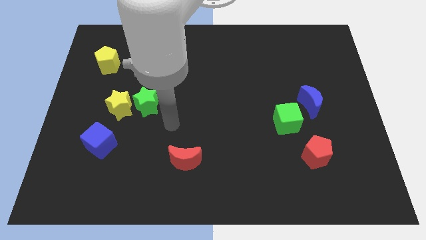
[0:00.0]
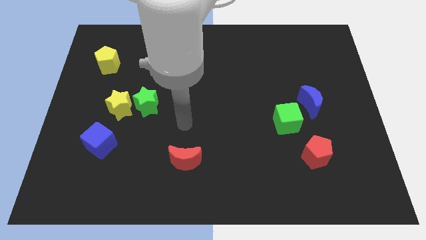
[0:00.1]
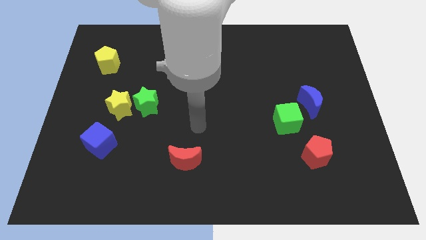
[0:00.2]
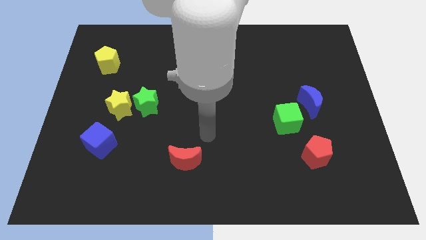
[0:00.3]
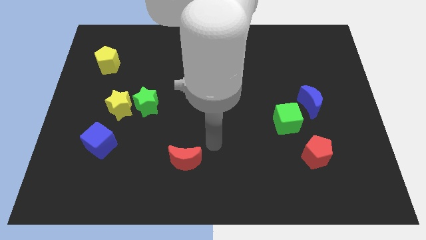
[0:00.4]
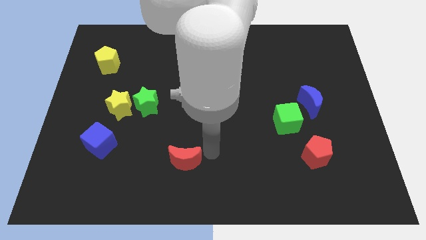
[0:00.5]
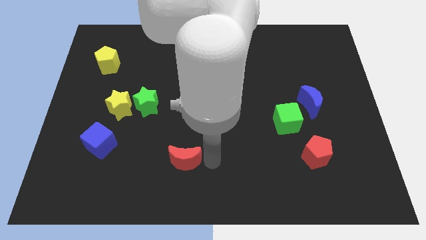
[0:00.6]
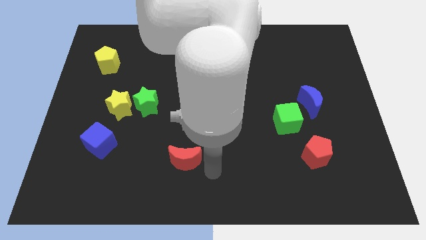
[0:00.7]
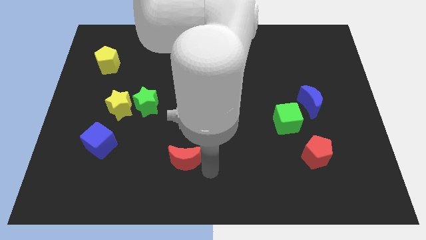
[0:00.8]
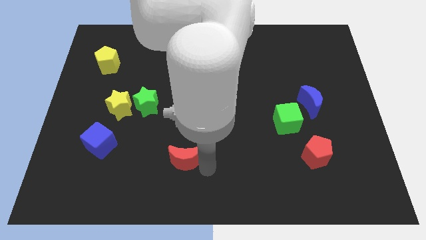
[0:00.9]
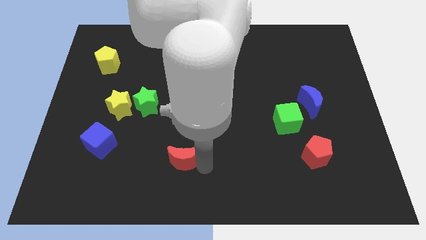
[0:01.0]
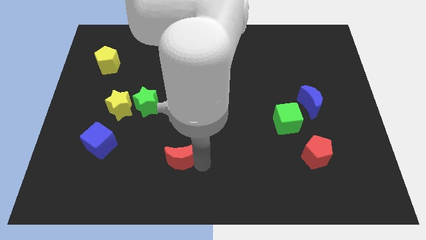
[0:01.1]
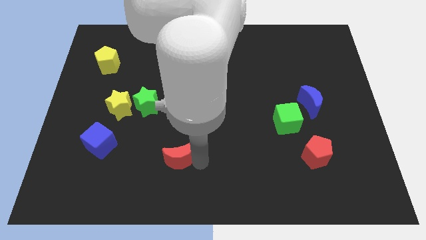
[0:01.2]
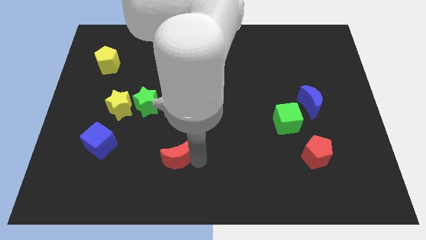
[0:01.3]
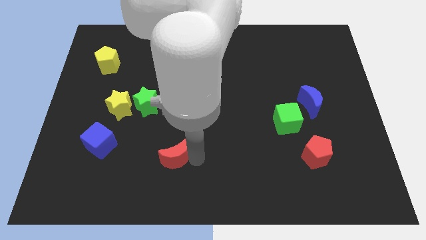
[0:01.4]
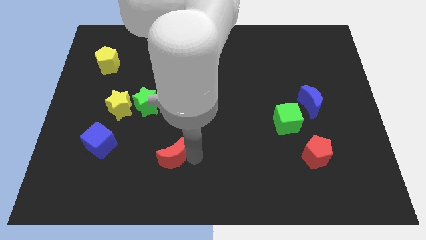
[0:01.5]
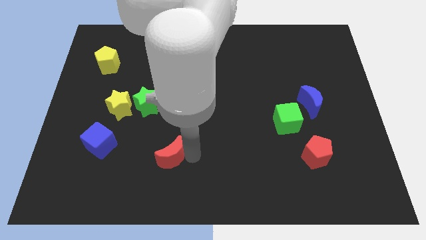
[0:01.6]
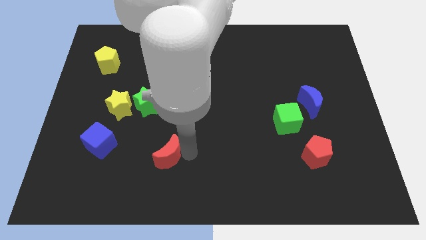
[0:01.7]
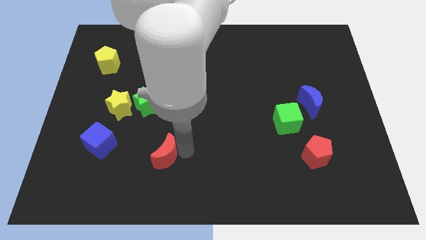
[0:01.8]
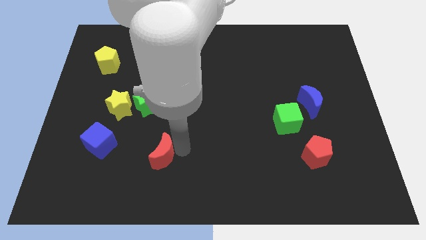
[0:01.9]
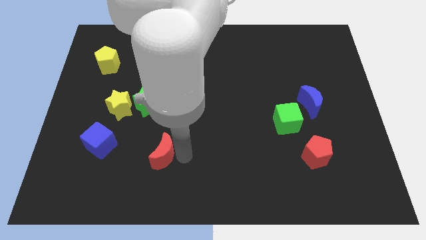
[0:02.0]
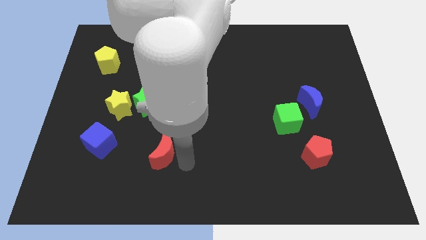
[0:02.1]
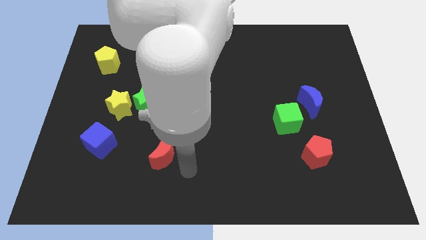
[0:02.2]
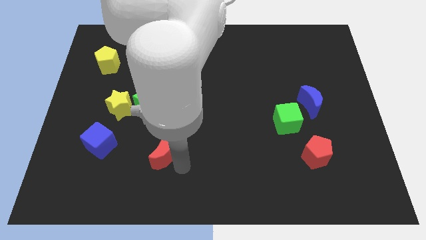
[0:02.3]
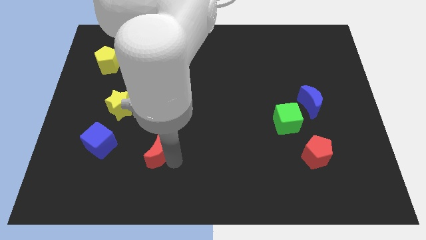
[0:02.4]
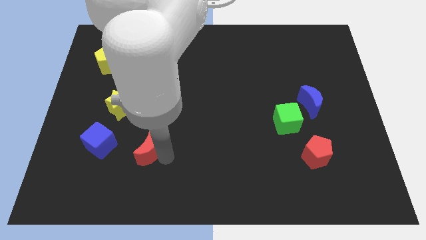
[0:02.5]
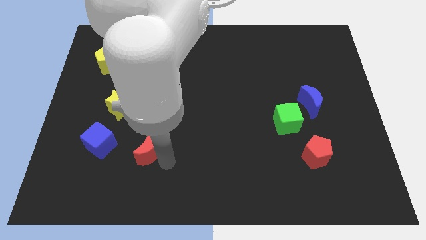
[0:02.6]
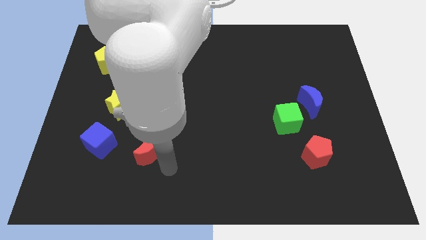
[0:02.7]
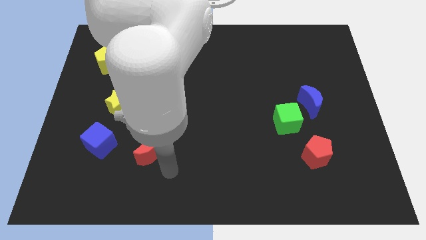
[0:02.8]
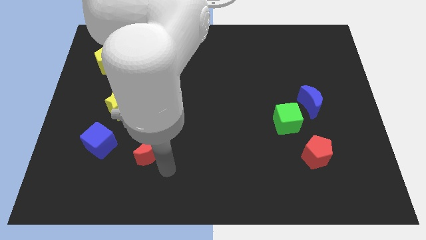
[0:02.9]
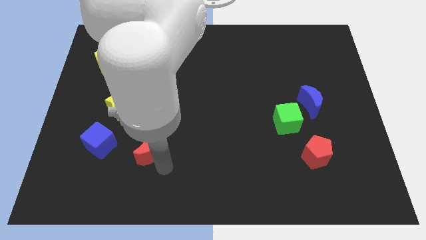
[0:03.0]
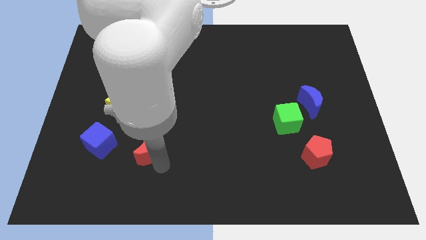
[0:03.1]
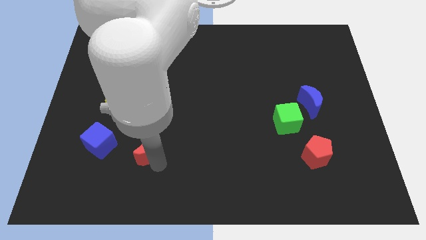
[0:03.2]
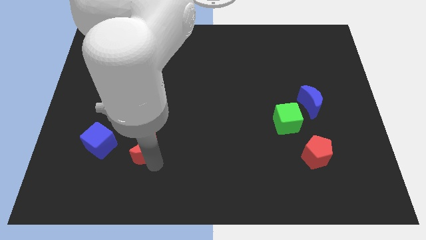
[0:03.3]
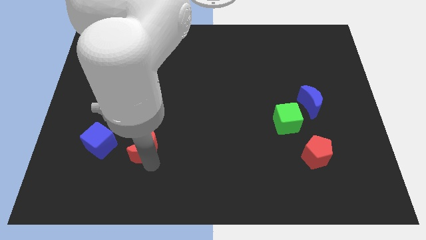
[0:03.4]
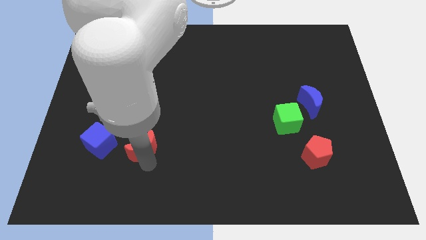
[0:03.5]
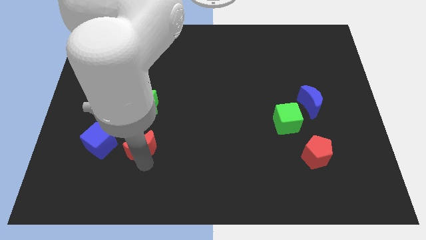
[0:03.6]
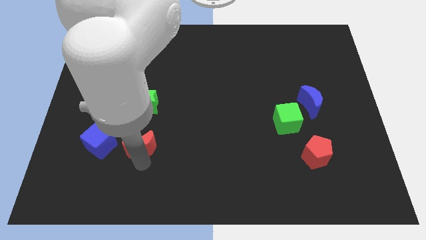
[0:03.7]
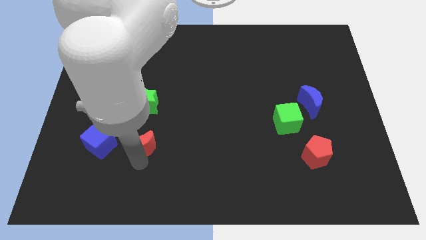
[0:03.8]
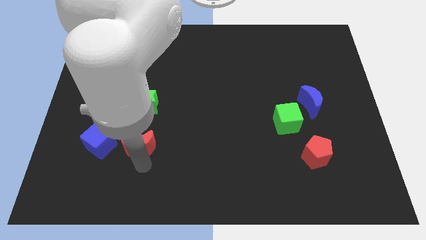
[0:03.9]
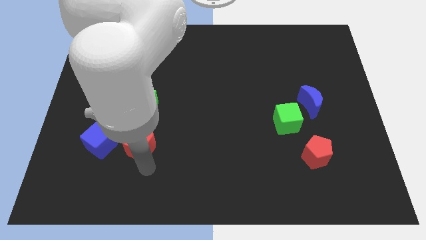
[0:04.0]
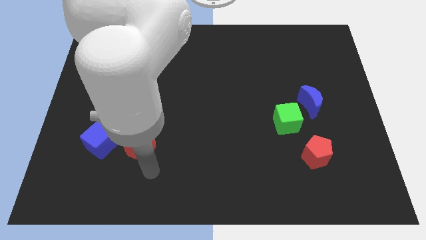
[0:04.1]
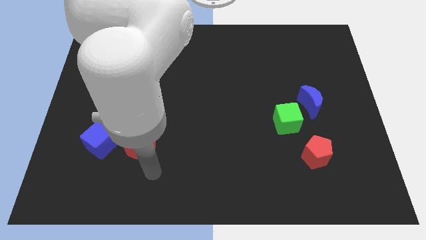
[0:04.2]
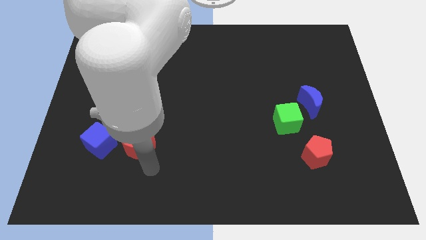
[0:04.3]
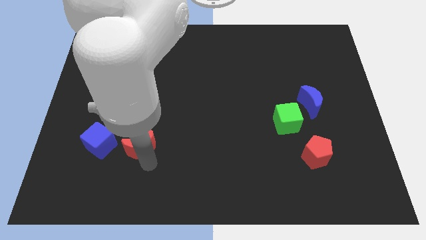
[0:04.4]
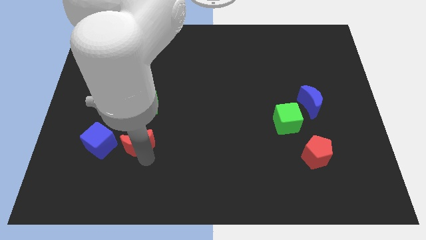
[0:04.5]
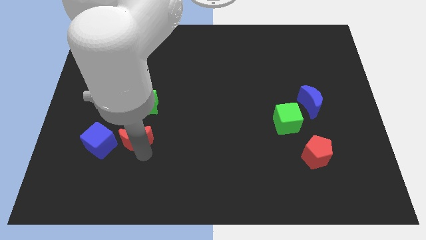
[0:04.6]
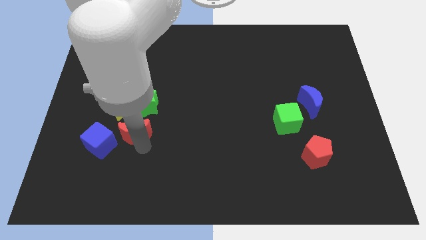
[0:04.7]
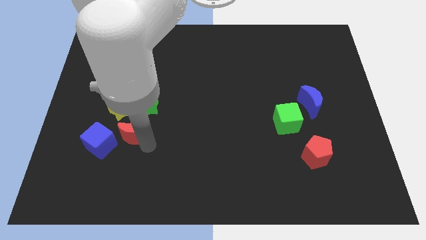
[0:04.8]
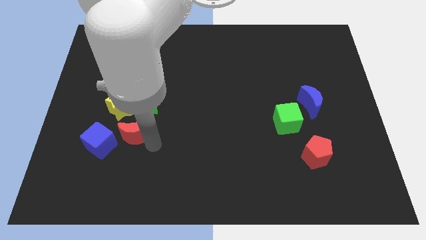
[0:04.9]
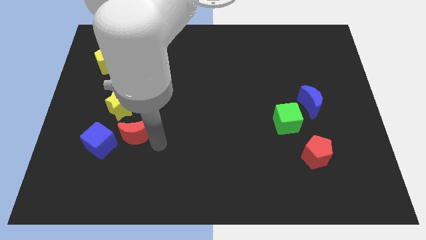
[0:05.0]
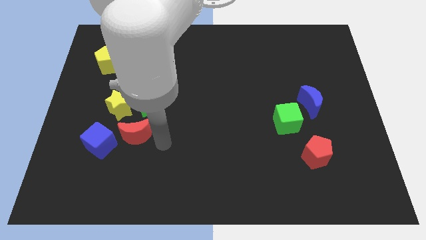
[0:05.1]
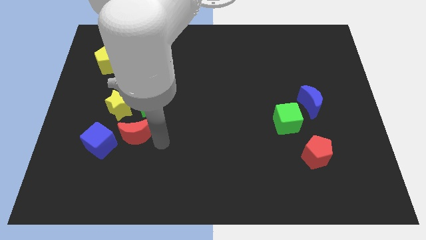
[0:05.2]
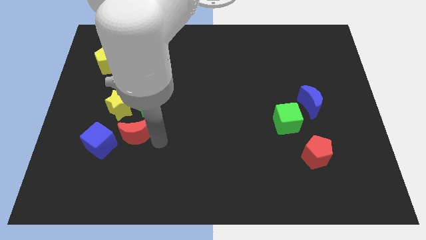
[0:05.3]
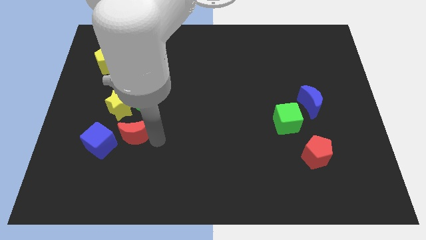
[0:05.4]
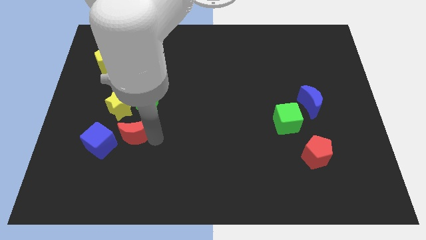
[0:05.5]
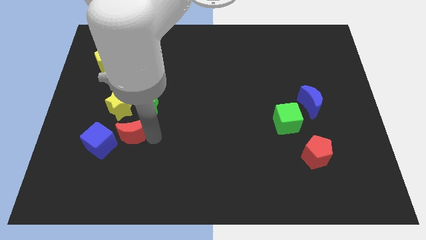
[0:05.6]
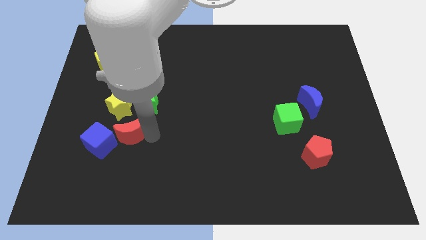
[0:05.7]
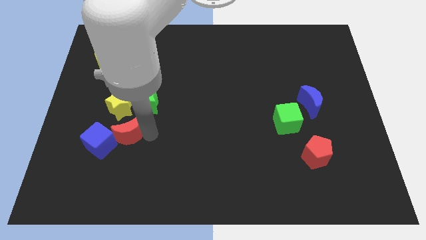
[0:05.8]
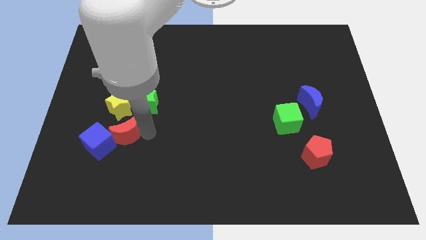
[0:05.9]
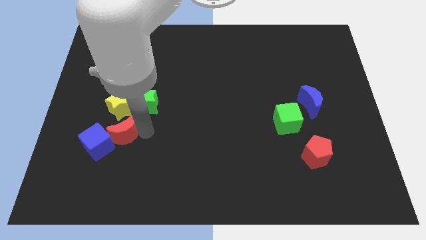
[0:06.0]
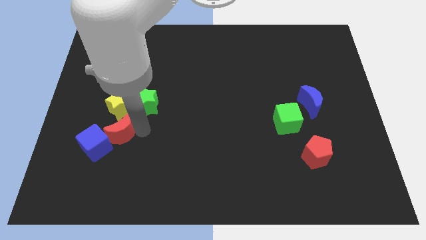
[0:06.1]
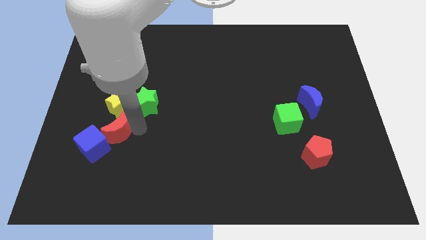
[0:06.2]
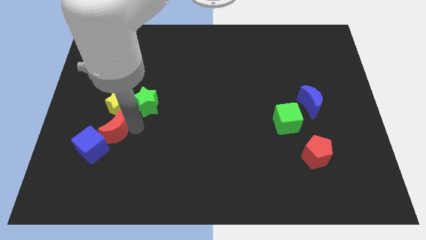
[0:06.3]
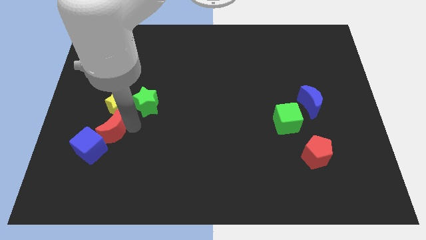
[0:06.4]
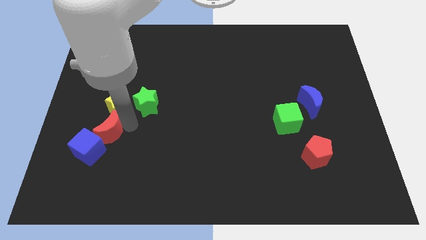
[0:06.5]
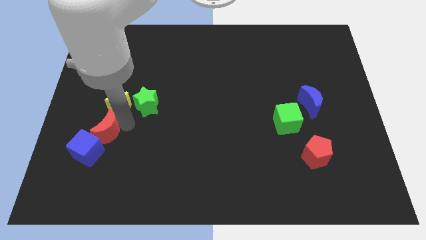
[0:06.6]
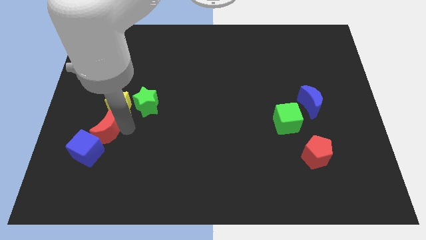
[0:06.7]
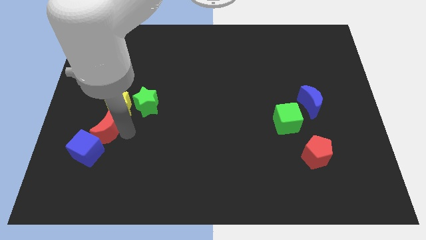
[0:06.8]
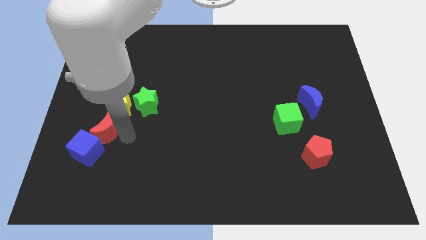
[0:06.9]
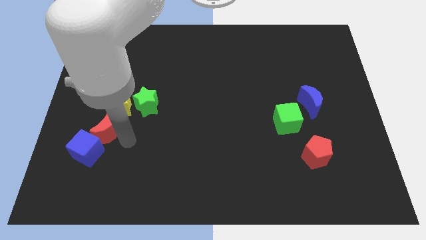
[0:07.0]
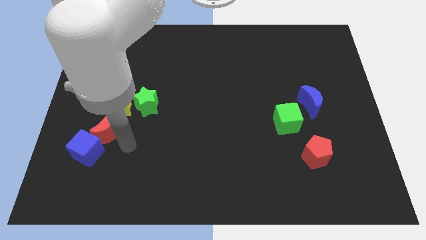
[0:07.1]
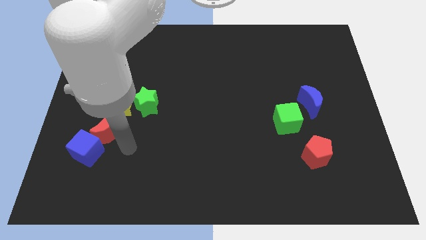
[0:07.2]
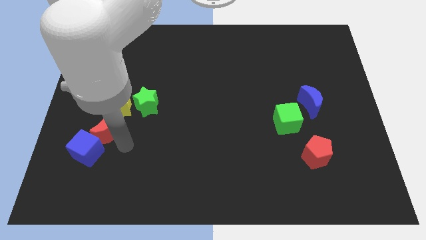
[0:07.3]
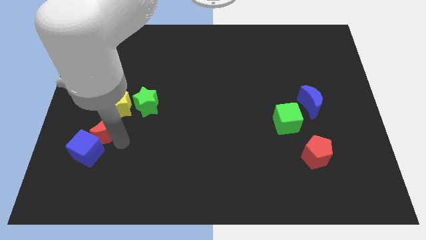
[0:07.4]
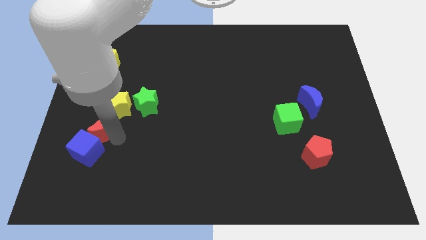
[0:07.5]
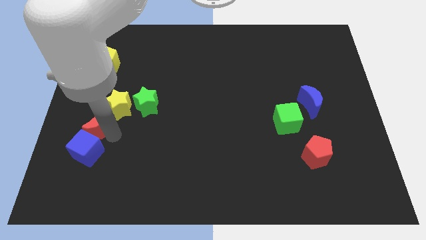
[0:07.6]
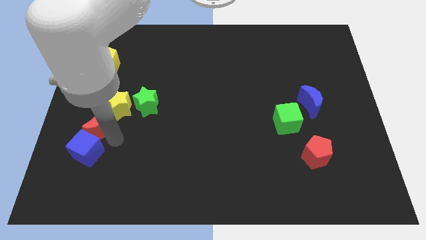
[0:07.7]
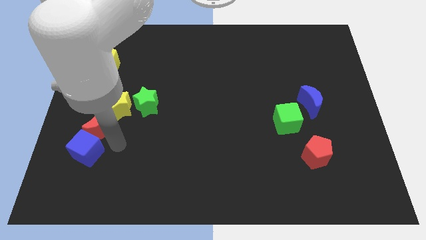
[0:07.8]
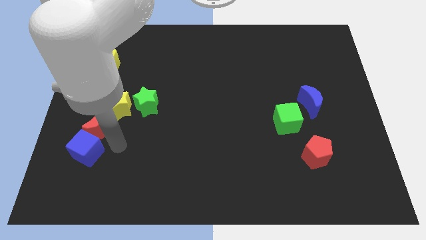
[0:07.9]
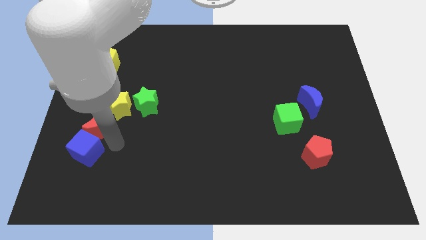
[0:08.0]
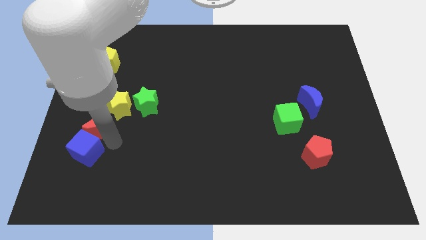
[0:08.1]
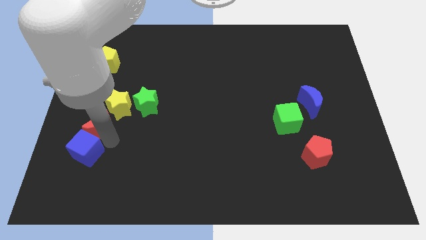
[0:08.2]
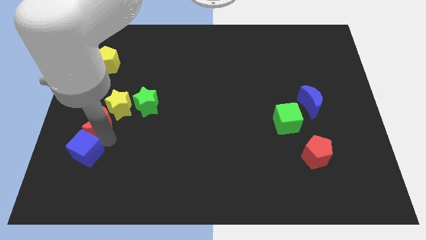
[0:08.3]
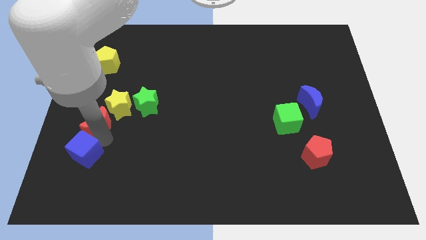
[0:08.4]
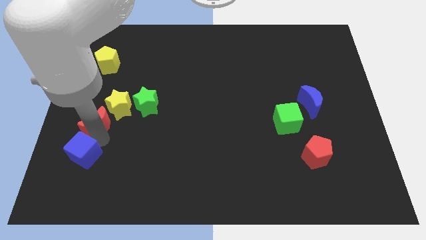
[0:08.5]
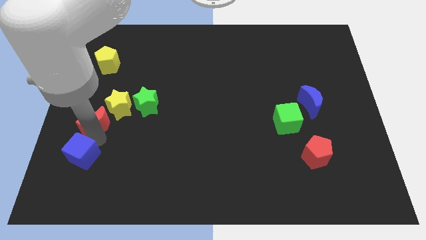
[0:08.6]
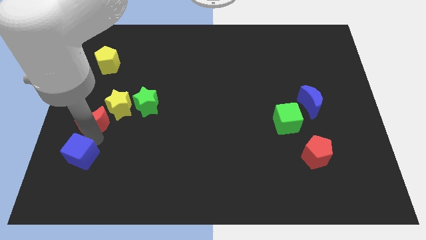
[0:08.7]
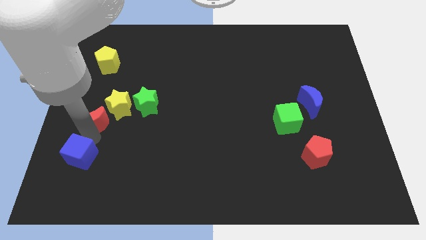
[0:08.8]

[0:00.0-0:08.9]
put the red moon to the left side
